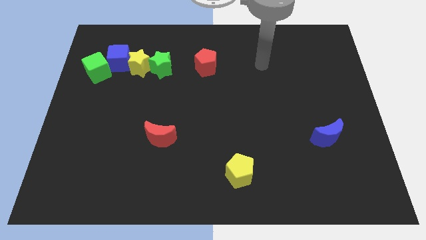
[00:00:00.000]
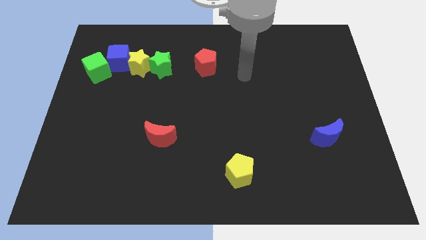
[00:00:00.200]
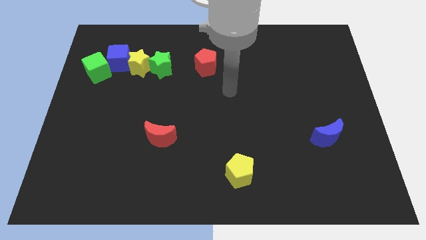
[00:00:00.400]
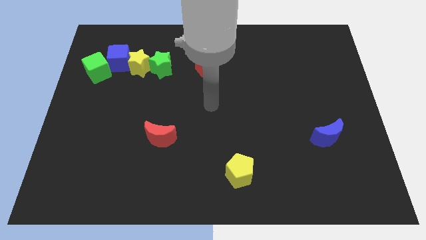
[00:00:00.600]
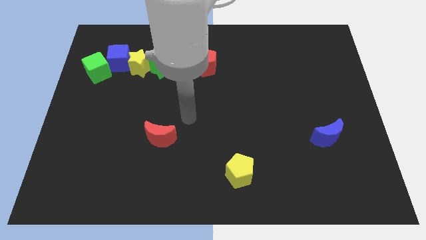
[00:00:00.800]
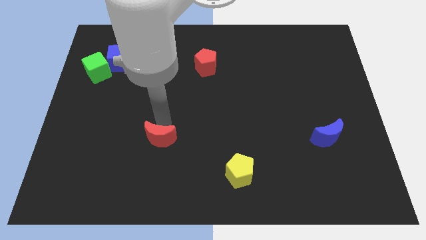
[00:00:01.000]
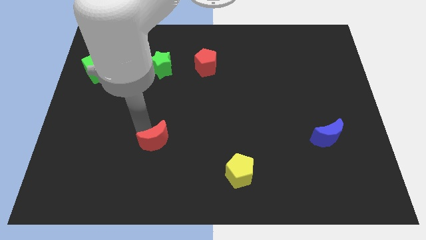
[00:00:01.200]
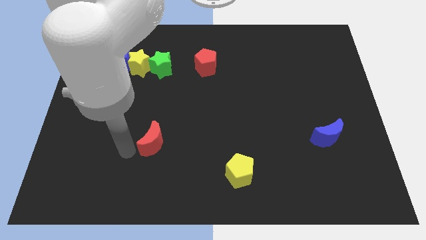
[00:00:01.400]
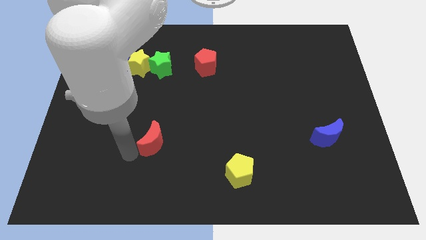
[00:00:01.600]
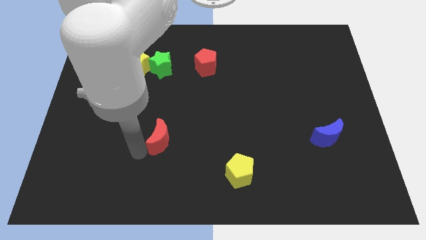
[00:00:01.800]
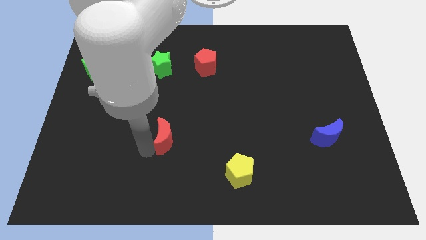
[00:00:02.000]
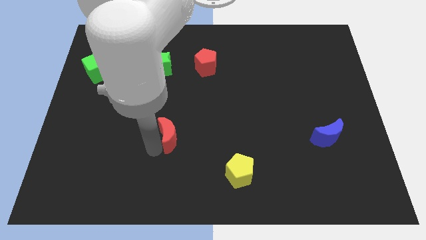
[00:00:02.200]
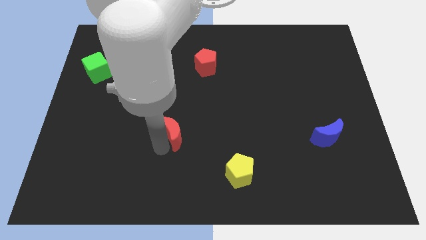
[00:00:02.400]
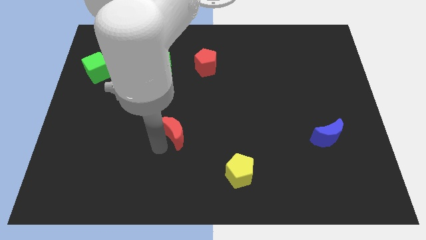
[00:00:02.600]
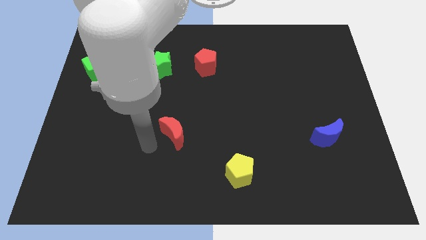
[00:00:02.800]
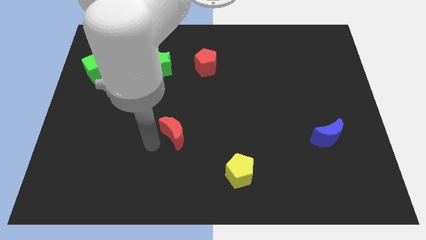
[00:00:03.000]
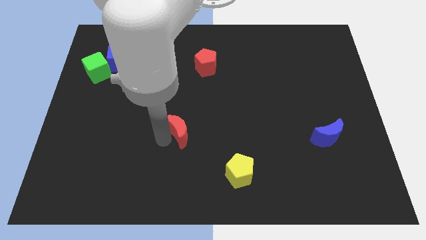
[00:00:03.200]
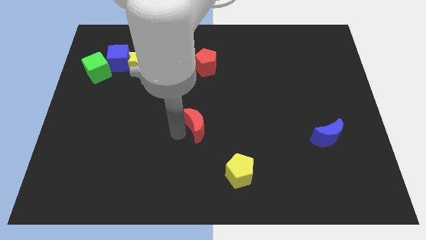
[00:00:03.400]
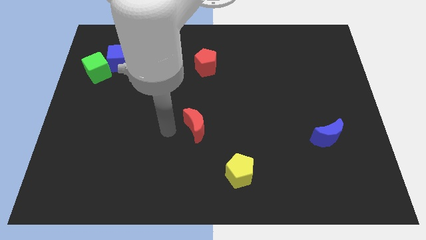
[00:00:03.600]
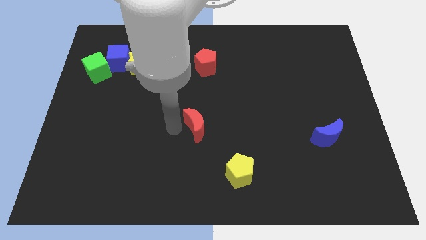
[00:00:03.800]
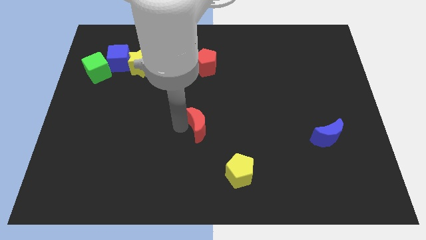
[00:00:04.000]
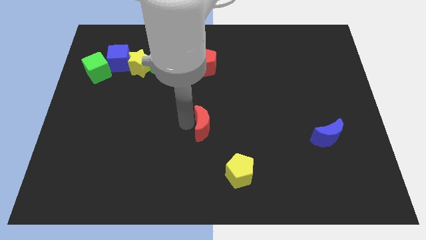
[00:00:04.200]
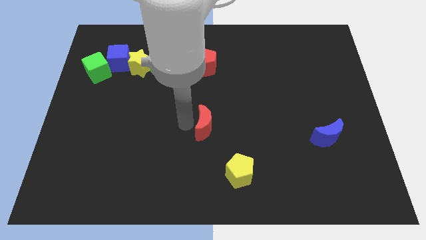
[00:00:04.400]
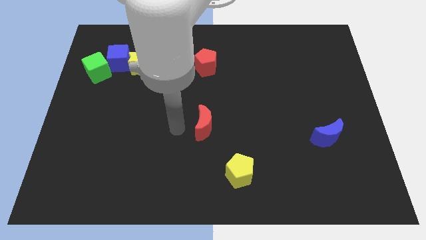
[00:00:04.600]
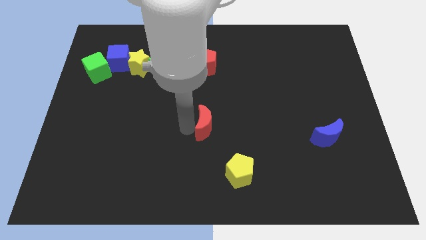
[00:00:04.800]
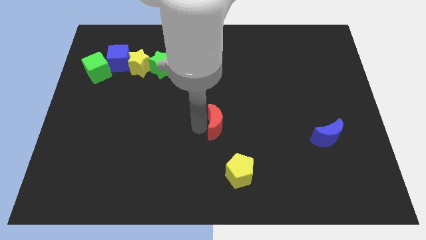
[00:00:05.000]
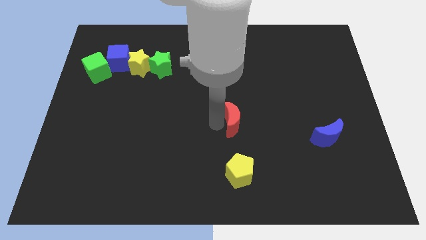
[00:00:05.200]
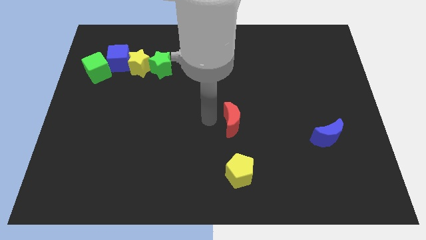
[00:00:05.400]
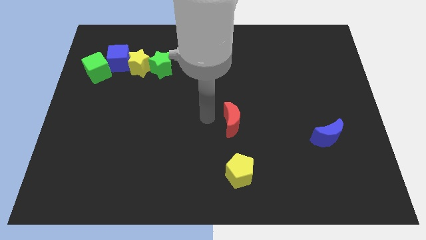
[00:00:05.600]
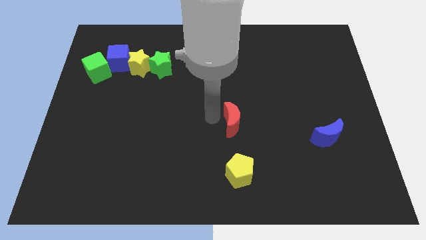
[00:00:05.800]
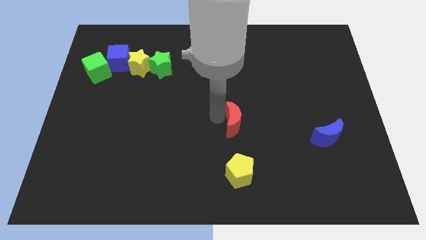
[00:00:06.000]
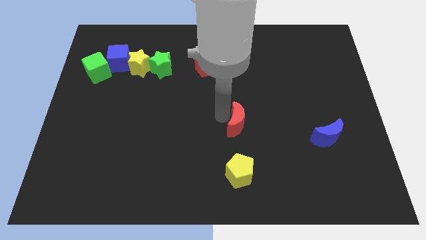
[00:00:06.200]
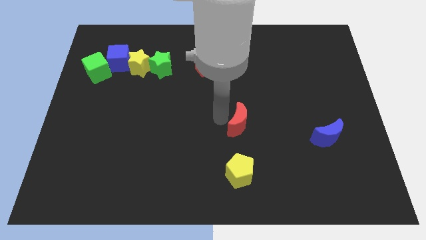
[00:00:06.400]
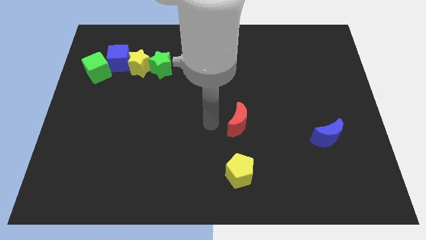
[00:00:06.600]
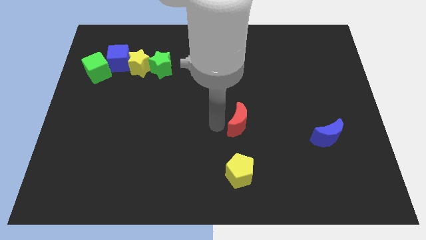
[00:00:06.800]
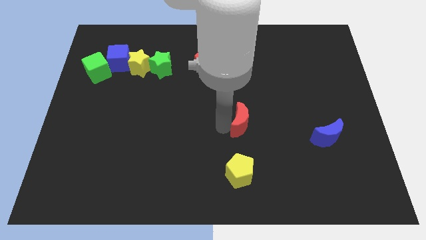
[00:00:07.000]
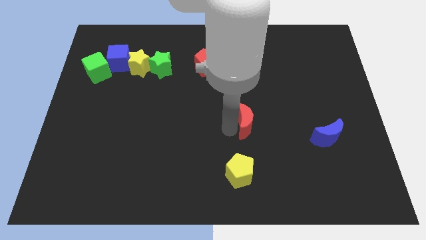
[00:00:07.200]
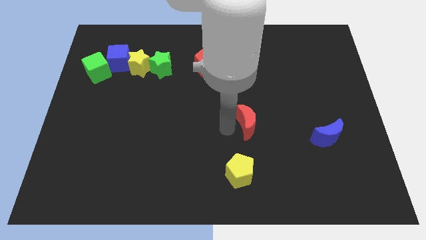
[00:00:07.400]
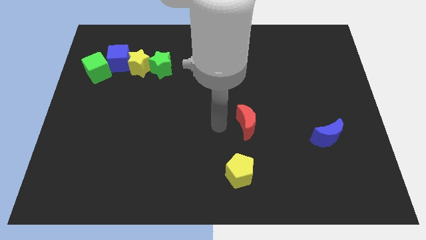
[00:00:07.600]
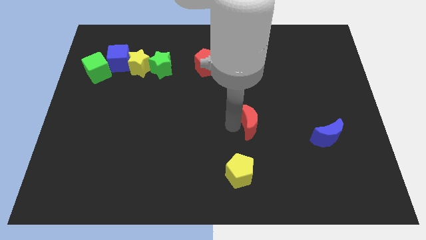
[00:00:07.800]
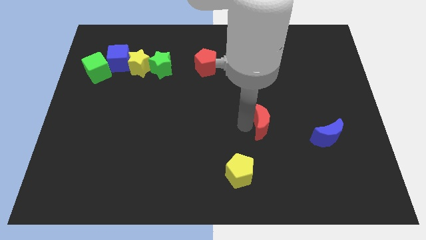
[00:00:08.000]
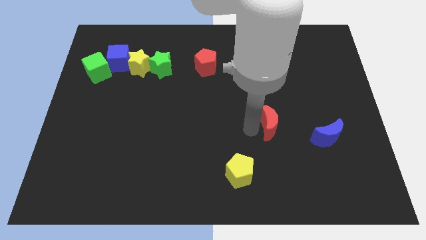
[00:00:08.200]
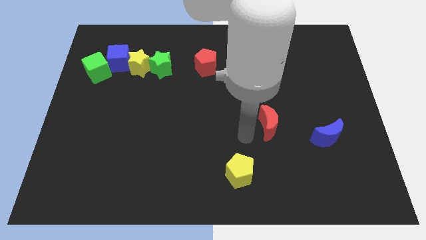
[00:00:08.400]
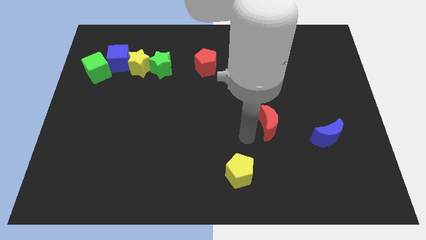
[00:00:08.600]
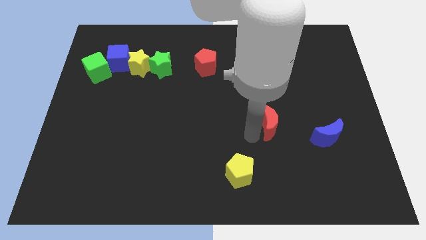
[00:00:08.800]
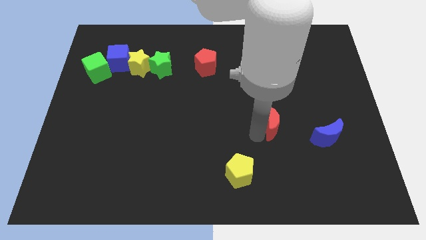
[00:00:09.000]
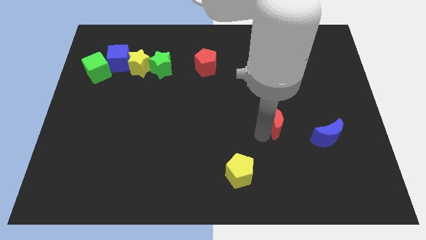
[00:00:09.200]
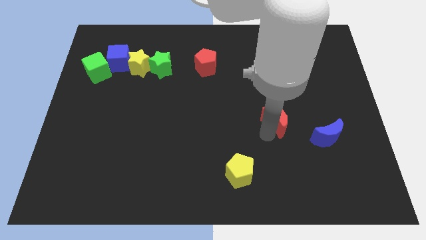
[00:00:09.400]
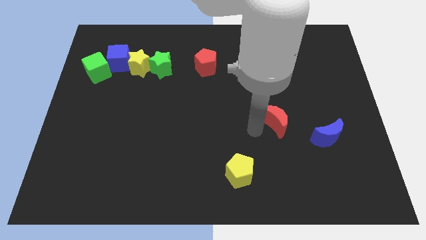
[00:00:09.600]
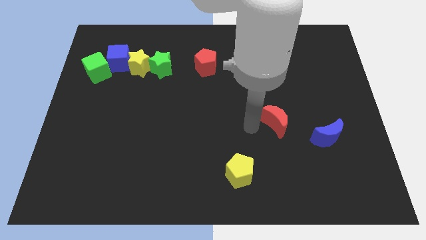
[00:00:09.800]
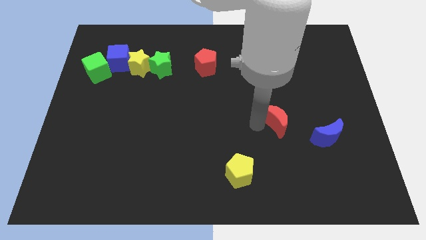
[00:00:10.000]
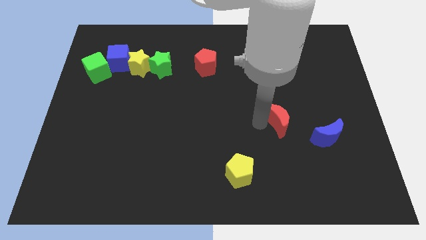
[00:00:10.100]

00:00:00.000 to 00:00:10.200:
push the red moon to the top left side of the blue moon

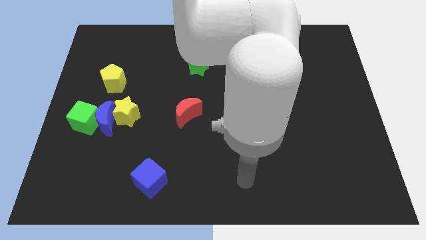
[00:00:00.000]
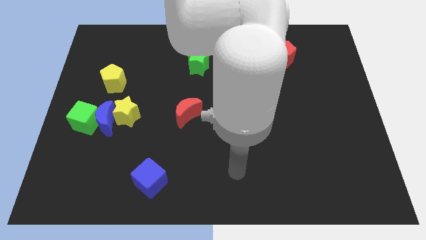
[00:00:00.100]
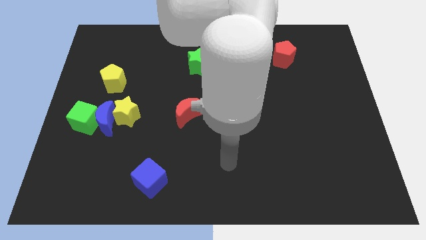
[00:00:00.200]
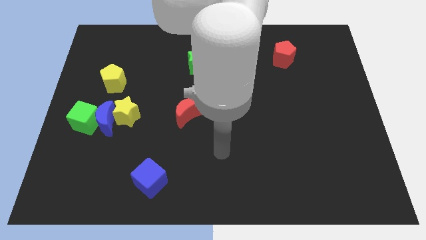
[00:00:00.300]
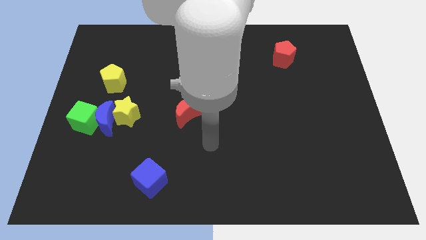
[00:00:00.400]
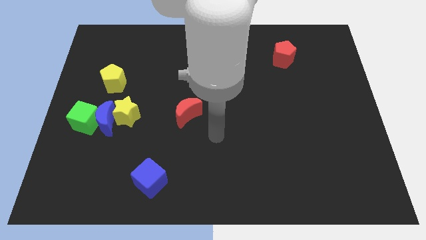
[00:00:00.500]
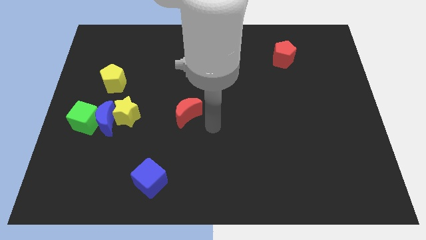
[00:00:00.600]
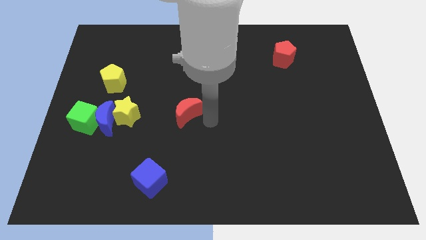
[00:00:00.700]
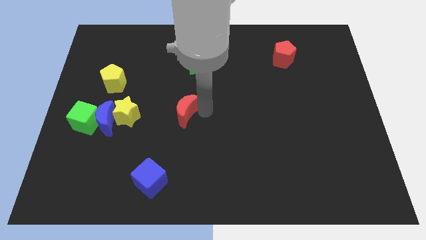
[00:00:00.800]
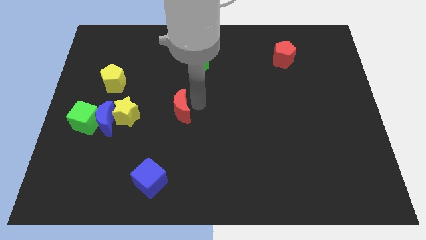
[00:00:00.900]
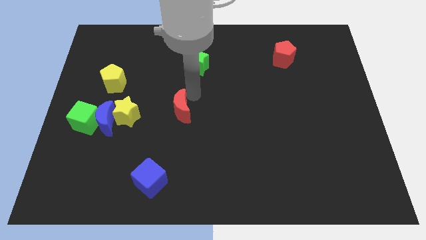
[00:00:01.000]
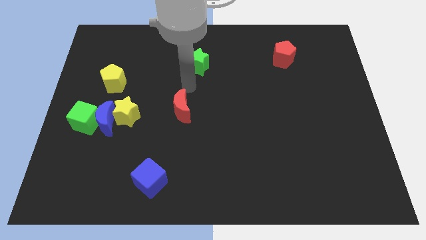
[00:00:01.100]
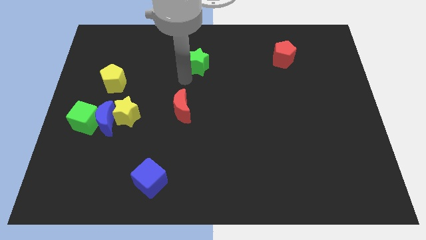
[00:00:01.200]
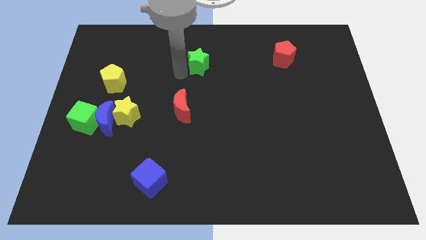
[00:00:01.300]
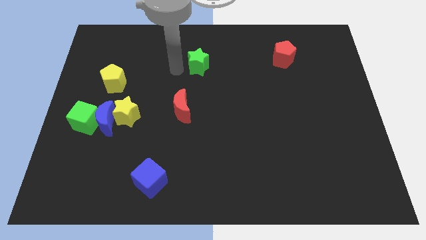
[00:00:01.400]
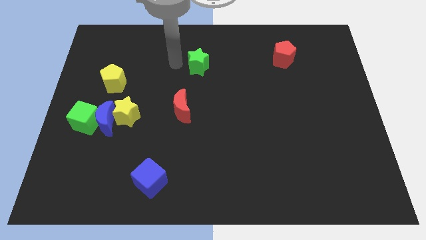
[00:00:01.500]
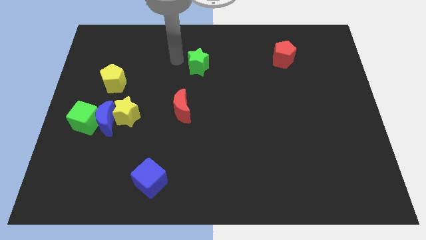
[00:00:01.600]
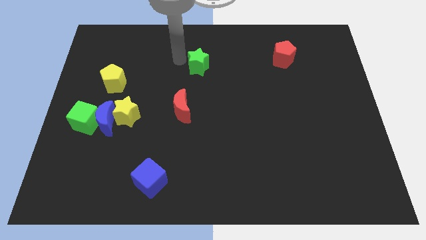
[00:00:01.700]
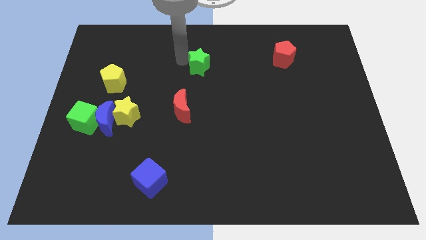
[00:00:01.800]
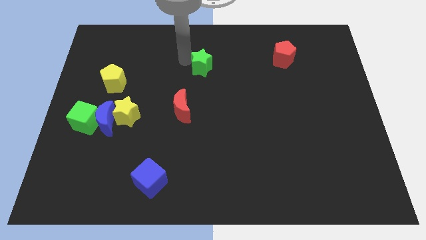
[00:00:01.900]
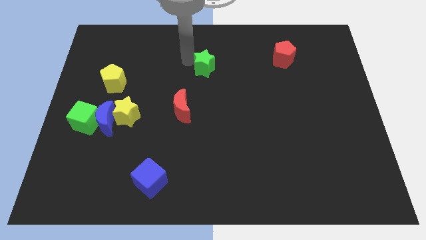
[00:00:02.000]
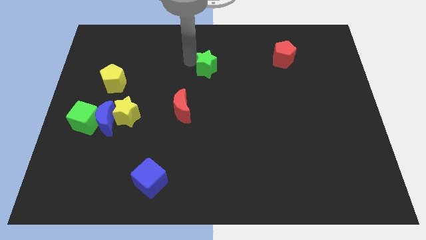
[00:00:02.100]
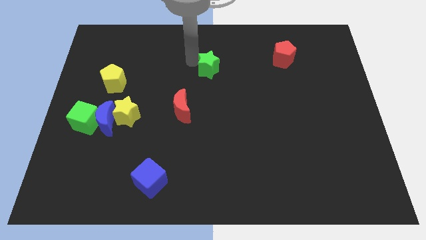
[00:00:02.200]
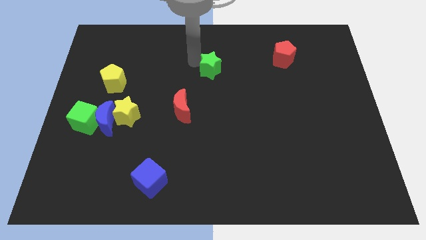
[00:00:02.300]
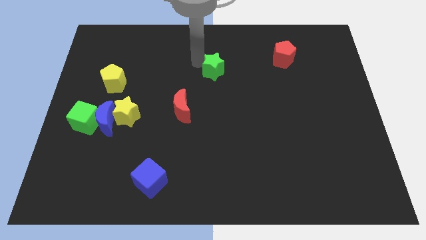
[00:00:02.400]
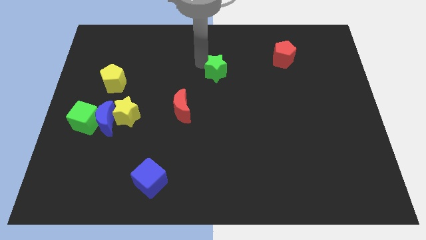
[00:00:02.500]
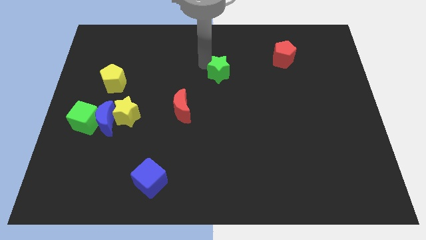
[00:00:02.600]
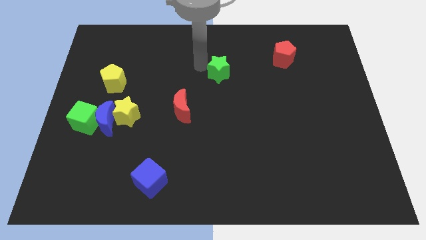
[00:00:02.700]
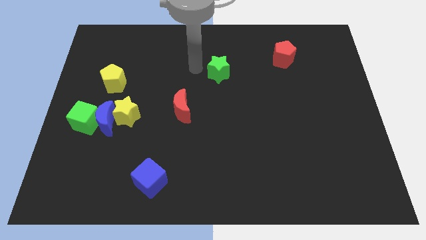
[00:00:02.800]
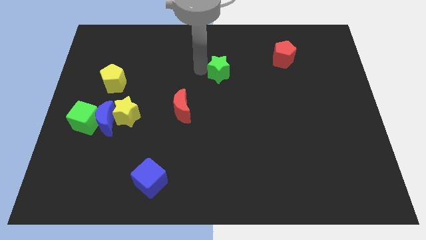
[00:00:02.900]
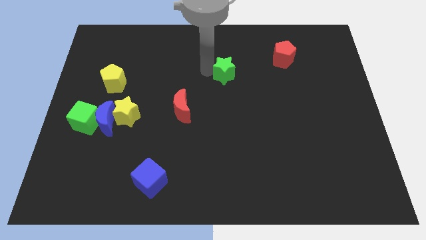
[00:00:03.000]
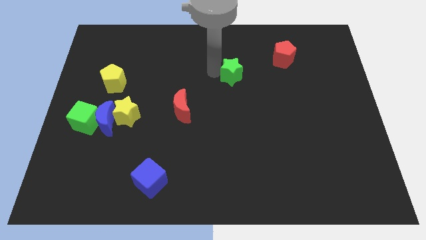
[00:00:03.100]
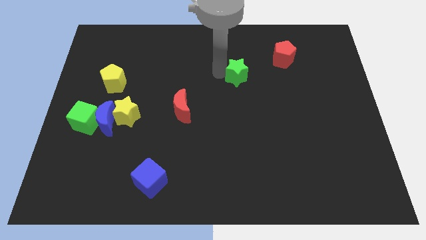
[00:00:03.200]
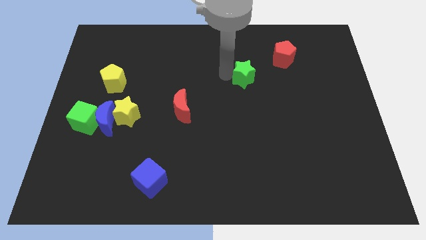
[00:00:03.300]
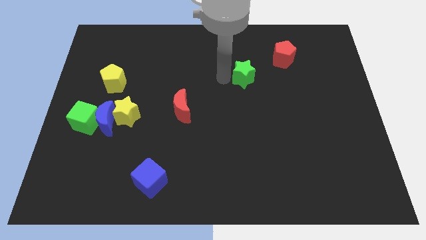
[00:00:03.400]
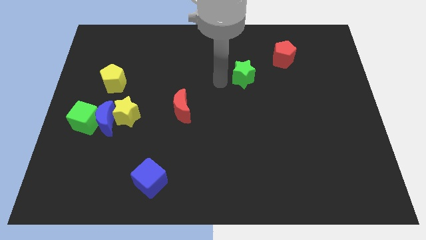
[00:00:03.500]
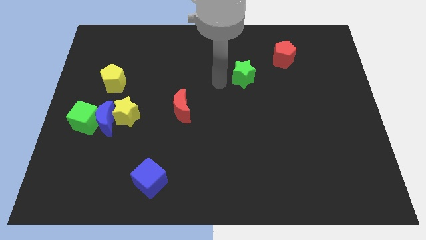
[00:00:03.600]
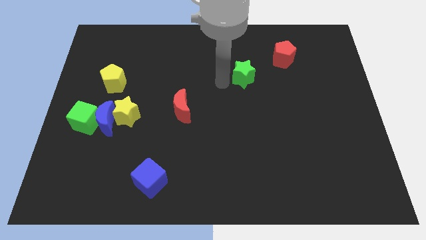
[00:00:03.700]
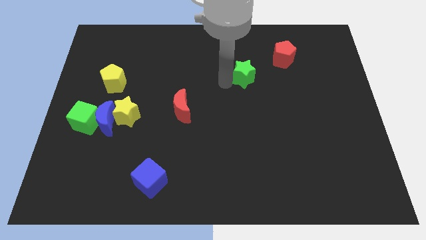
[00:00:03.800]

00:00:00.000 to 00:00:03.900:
push the green star to the bottom left of the red pentagon
